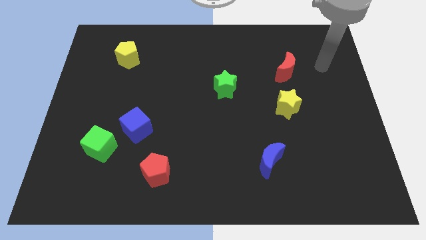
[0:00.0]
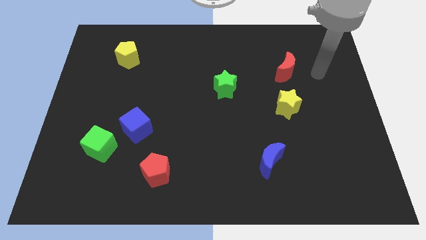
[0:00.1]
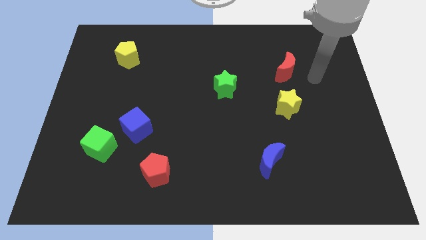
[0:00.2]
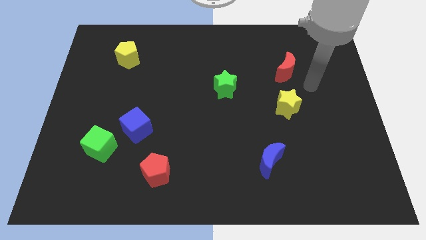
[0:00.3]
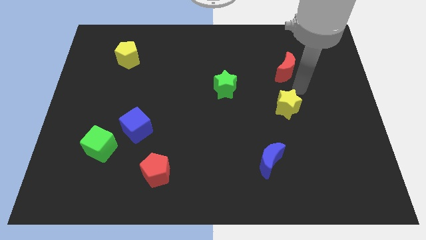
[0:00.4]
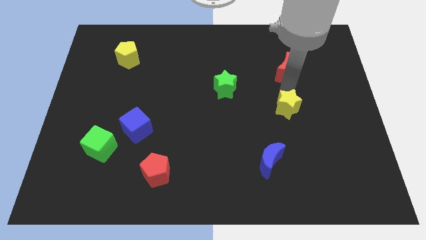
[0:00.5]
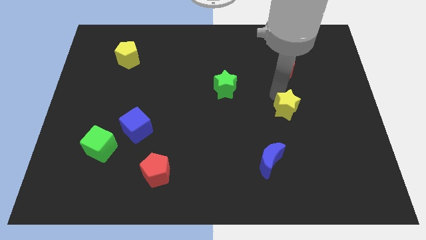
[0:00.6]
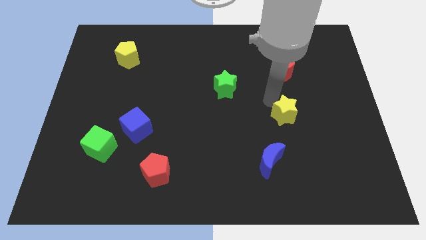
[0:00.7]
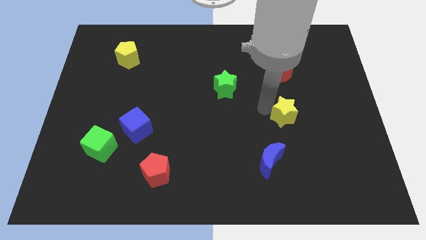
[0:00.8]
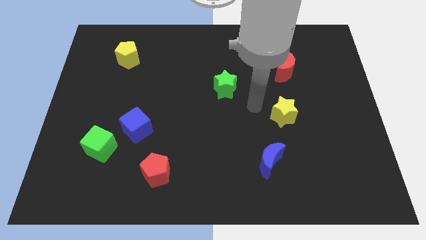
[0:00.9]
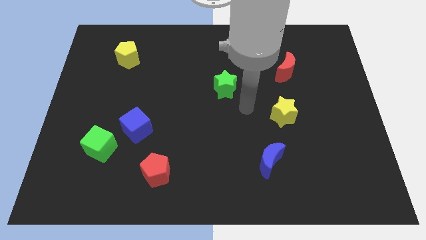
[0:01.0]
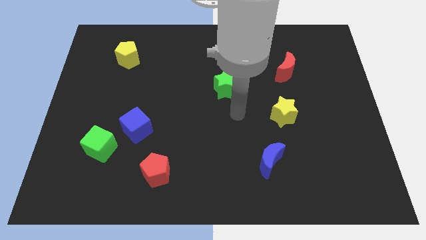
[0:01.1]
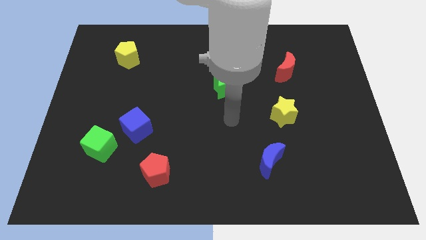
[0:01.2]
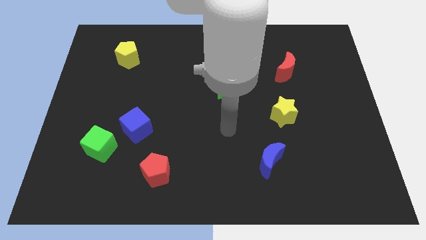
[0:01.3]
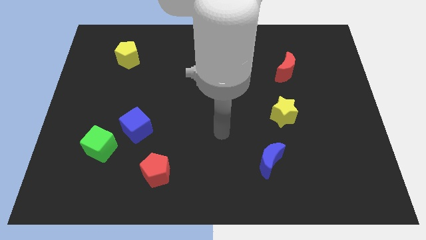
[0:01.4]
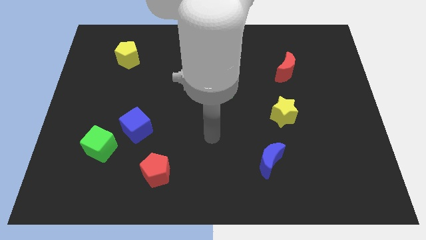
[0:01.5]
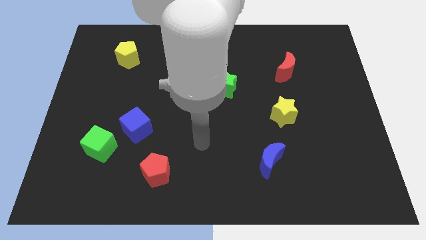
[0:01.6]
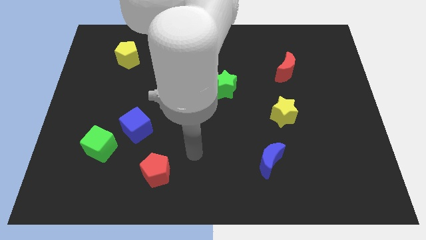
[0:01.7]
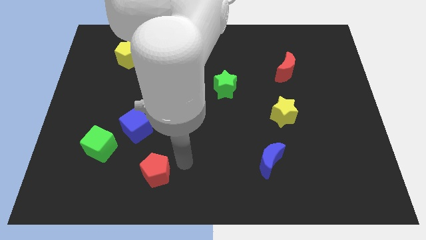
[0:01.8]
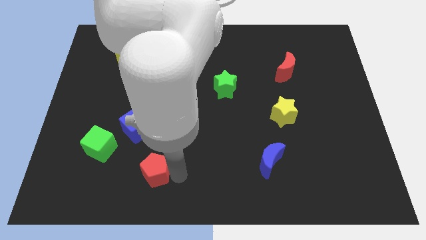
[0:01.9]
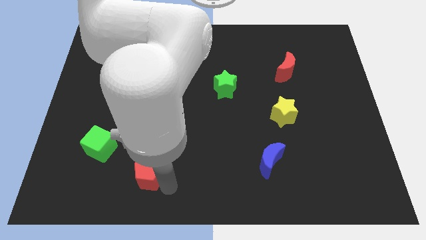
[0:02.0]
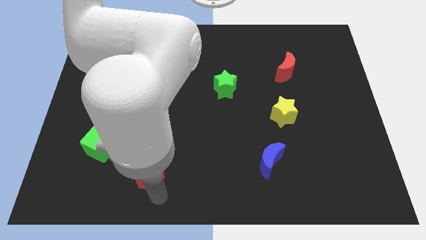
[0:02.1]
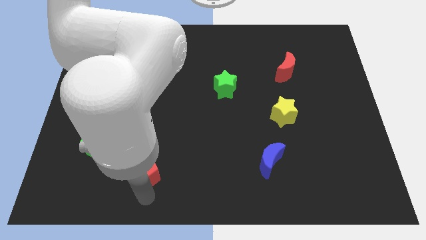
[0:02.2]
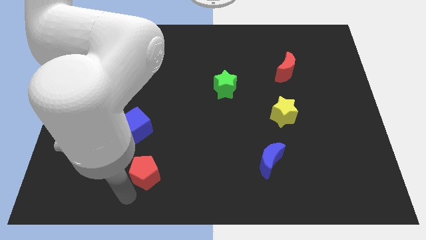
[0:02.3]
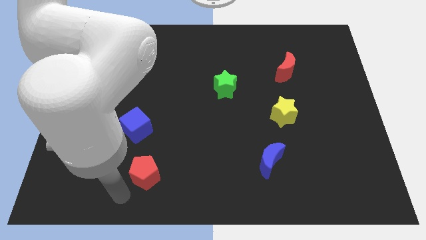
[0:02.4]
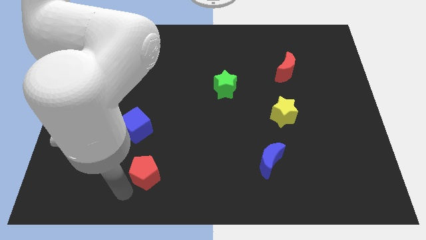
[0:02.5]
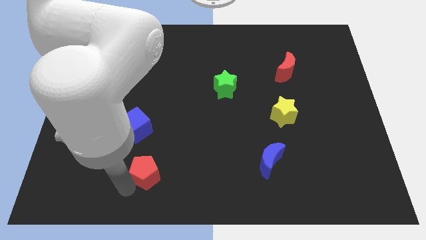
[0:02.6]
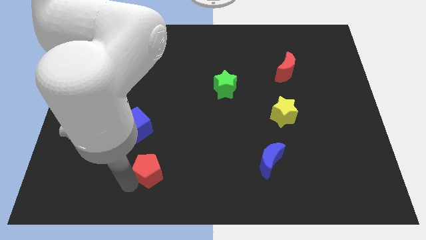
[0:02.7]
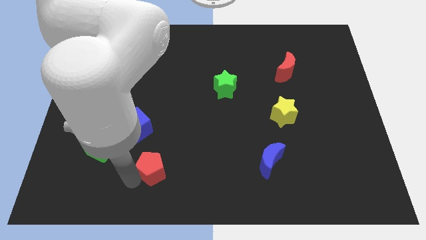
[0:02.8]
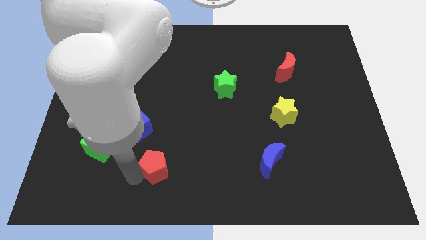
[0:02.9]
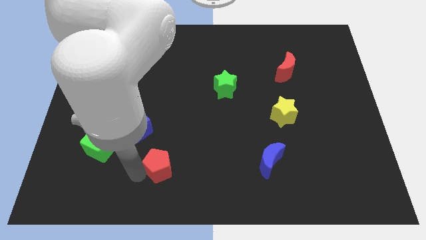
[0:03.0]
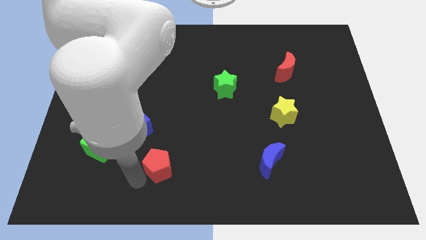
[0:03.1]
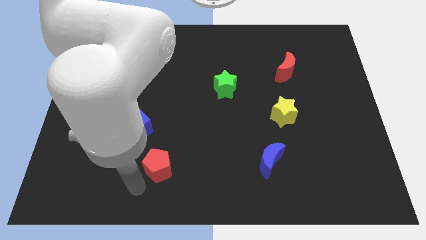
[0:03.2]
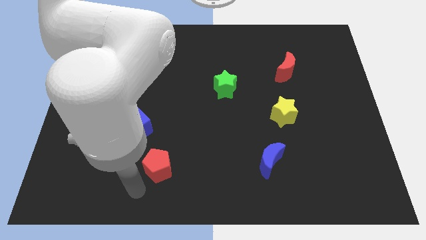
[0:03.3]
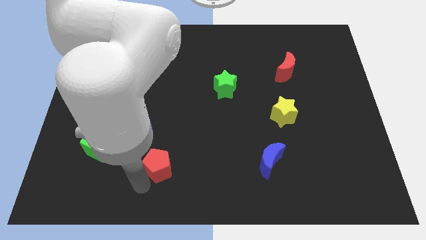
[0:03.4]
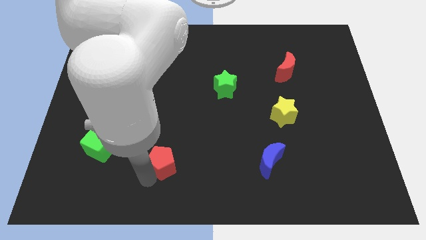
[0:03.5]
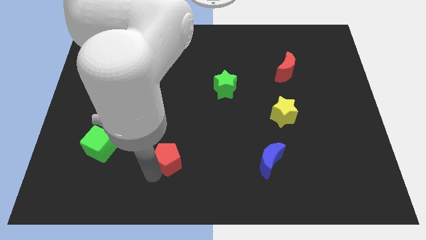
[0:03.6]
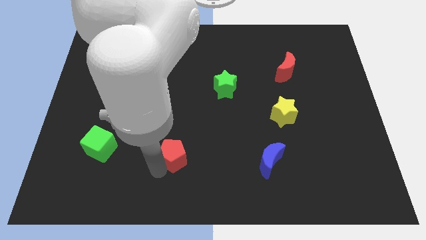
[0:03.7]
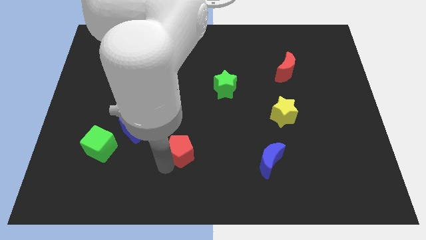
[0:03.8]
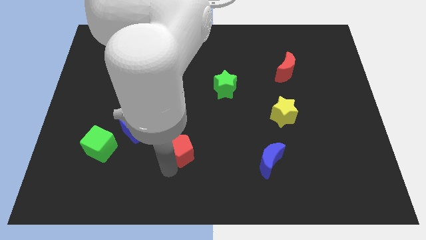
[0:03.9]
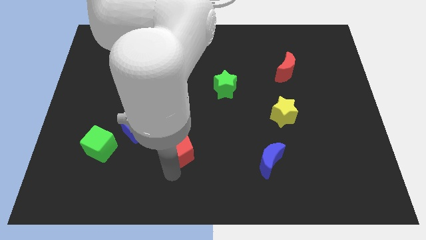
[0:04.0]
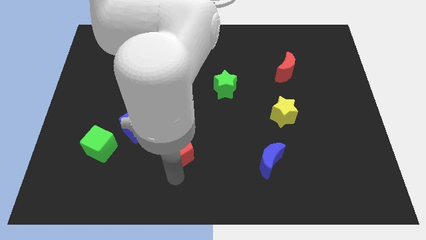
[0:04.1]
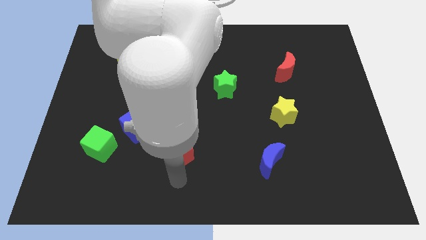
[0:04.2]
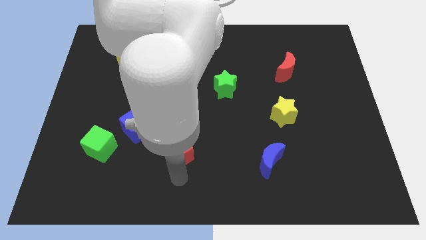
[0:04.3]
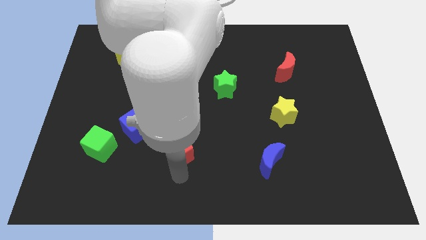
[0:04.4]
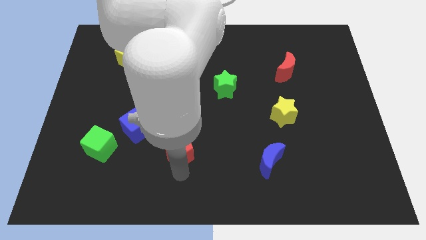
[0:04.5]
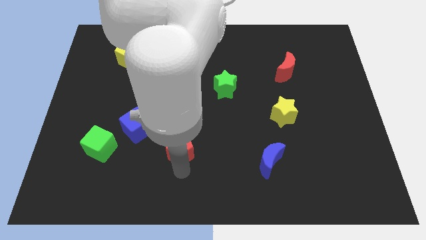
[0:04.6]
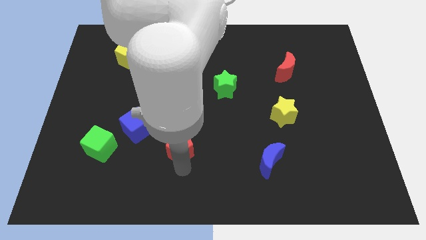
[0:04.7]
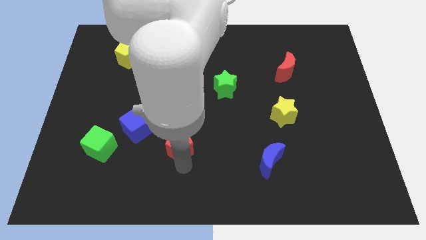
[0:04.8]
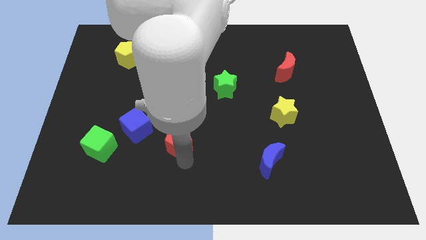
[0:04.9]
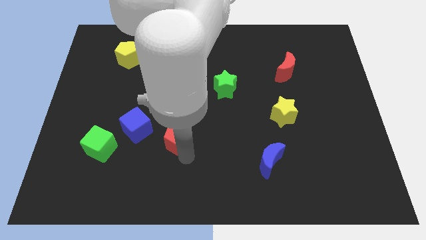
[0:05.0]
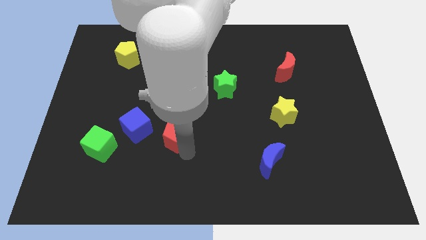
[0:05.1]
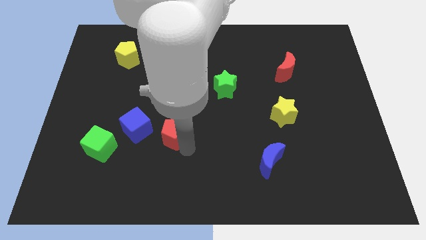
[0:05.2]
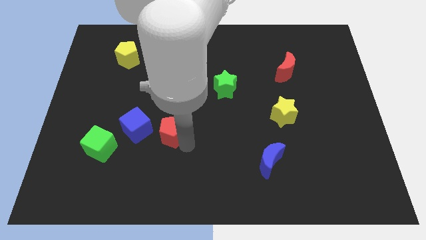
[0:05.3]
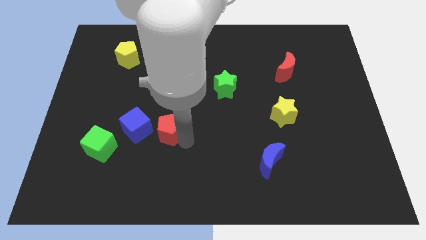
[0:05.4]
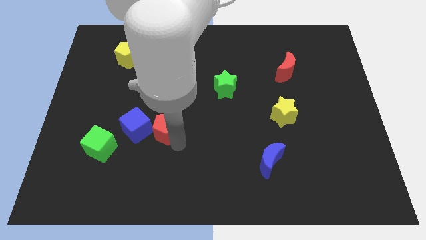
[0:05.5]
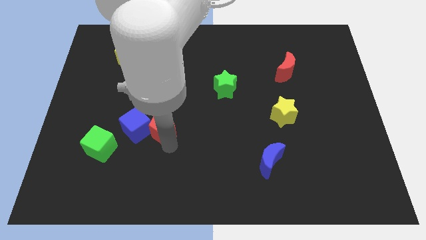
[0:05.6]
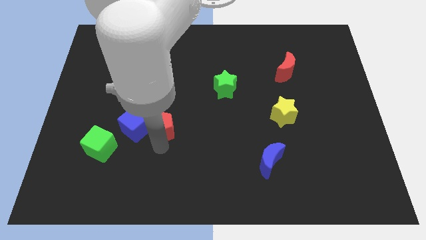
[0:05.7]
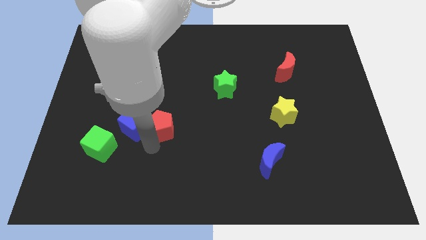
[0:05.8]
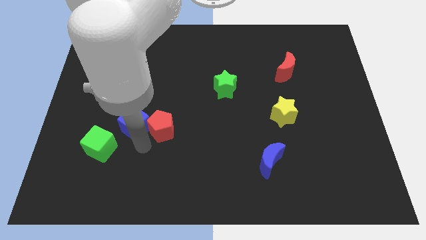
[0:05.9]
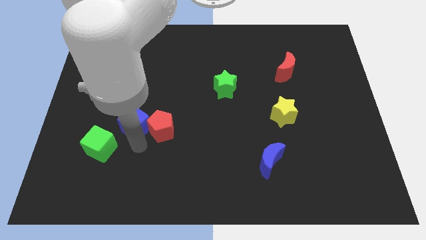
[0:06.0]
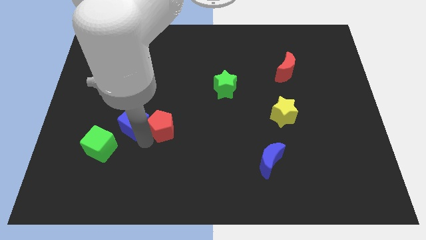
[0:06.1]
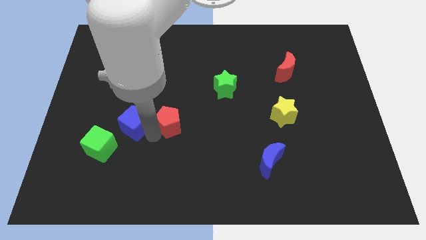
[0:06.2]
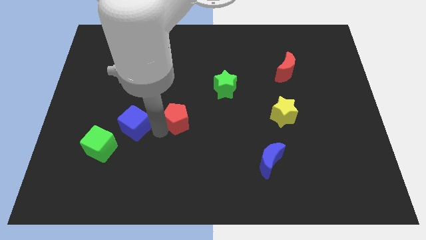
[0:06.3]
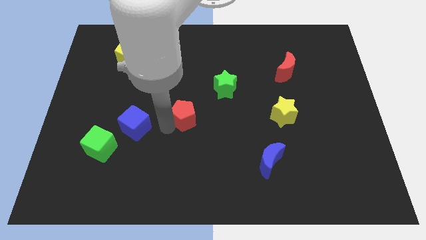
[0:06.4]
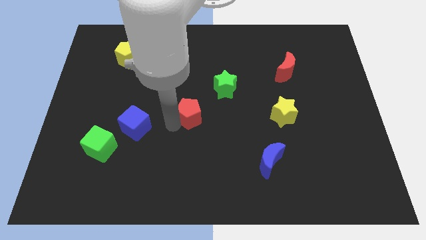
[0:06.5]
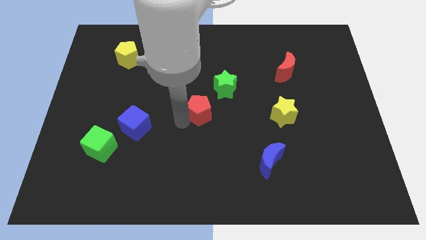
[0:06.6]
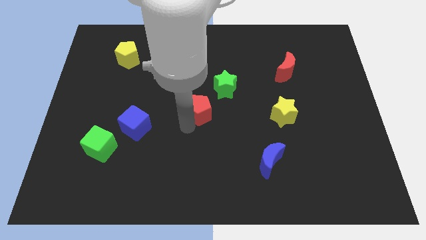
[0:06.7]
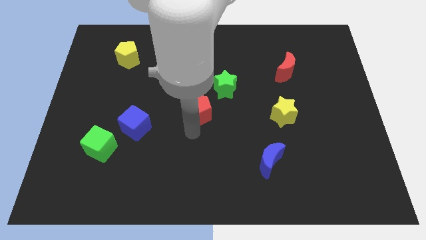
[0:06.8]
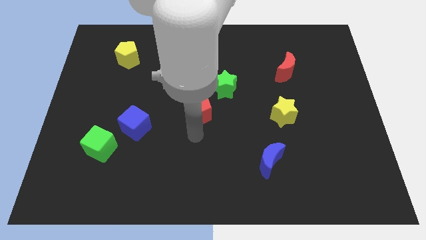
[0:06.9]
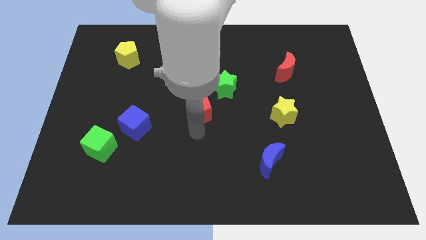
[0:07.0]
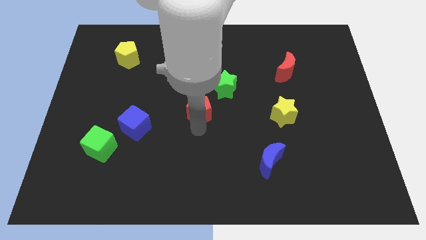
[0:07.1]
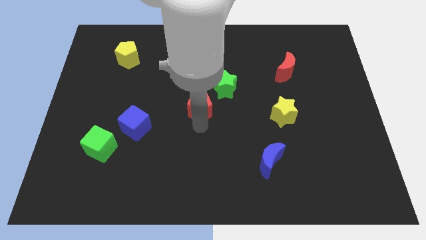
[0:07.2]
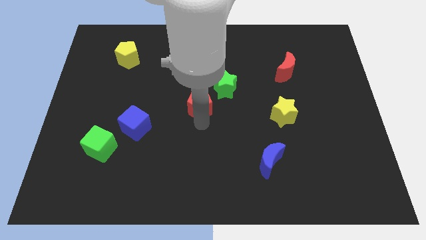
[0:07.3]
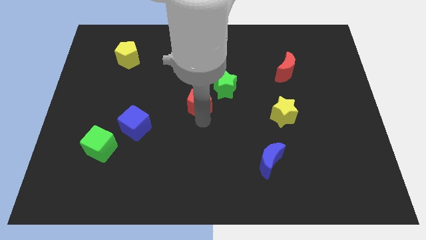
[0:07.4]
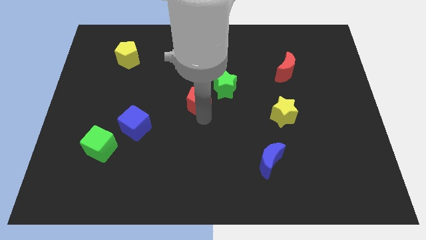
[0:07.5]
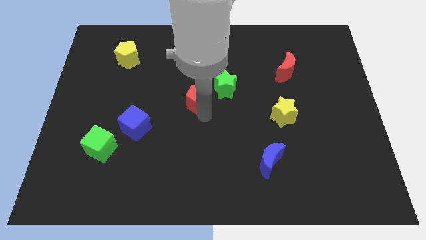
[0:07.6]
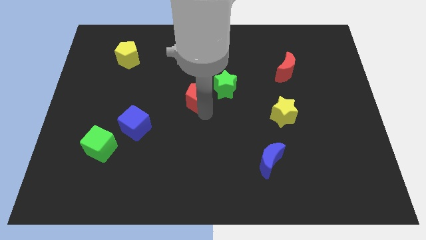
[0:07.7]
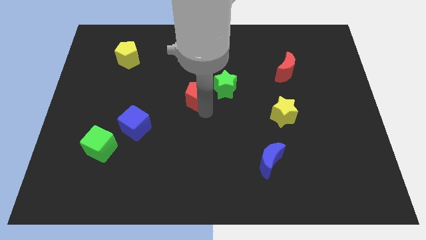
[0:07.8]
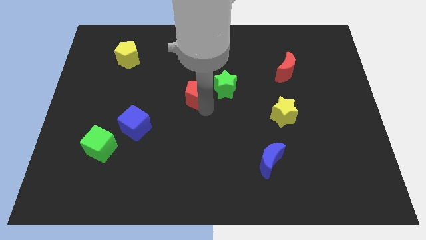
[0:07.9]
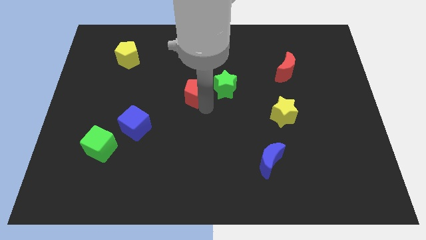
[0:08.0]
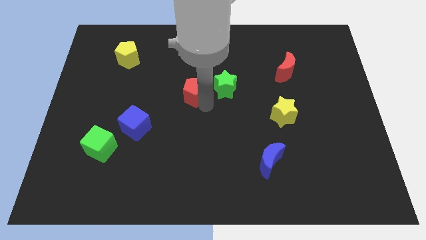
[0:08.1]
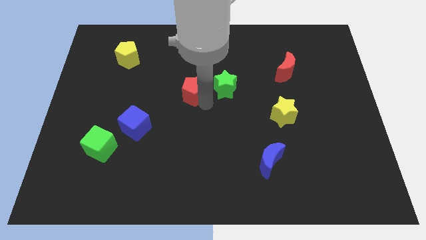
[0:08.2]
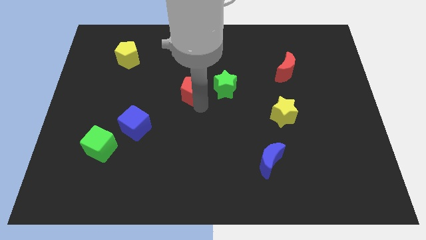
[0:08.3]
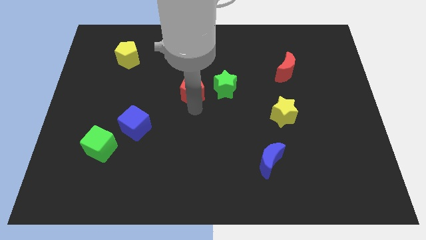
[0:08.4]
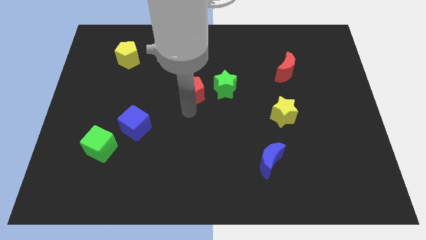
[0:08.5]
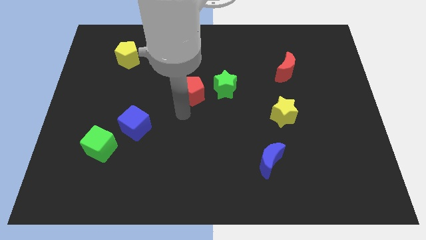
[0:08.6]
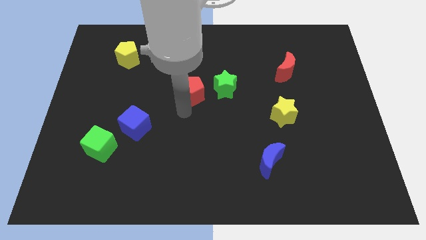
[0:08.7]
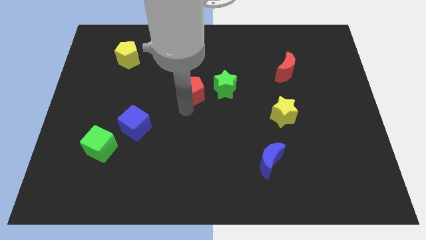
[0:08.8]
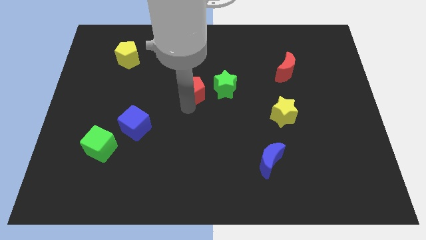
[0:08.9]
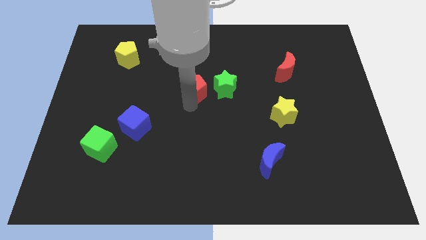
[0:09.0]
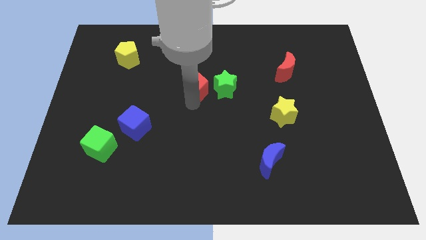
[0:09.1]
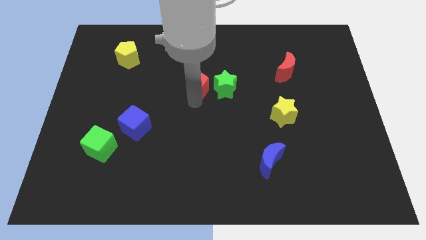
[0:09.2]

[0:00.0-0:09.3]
put the red pentagon diagonally up and to the left of the green star
